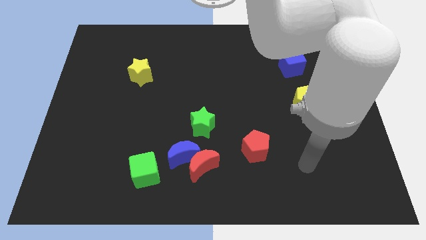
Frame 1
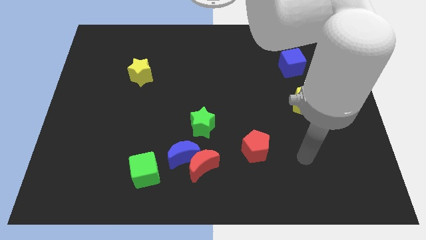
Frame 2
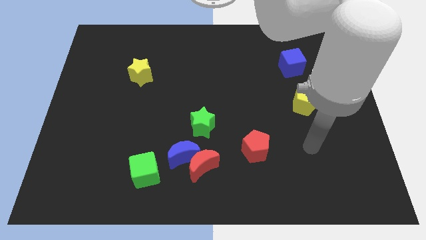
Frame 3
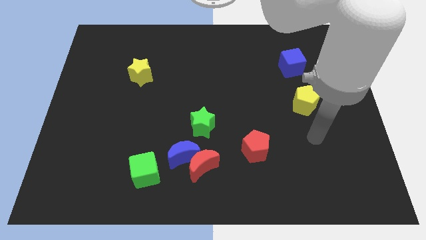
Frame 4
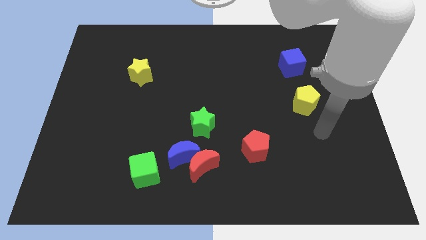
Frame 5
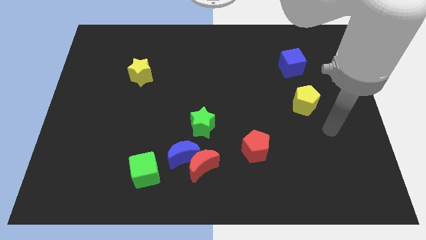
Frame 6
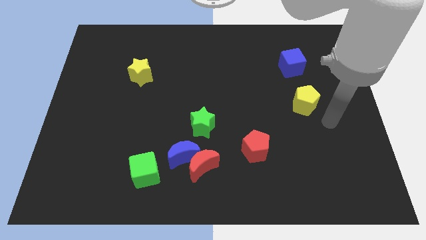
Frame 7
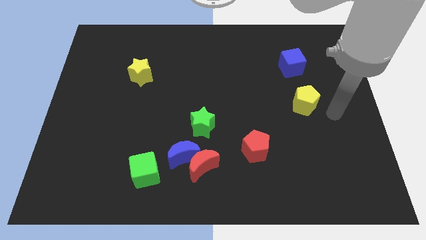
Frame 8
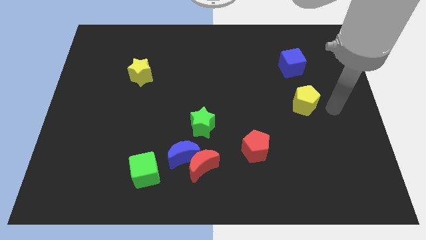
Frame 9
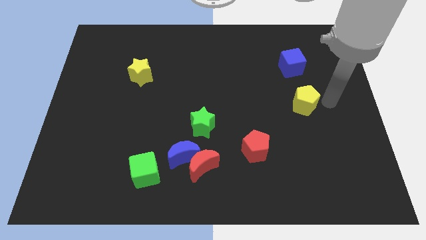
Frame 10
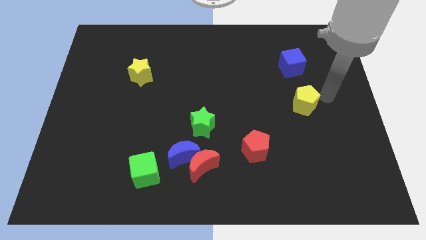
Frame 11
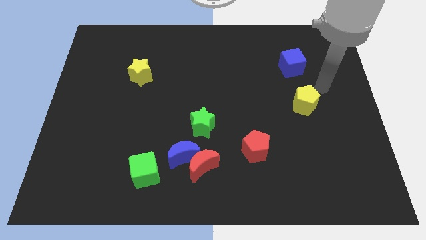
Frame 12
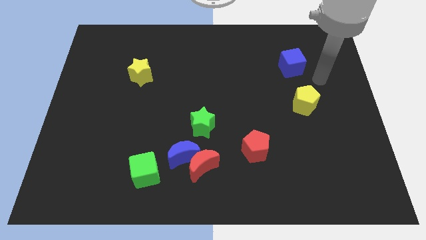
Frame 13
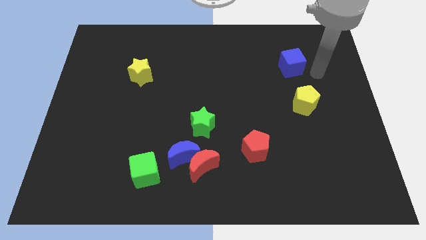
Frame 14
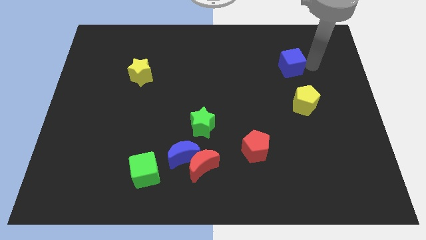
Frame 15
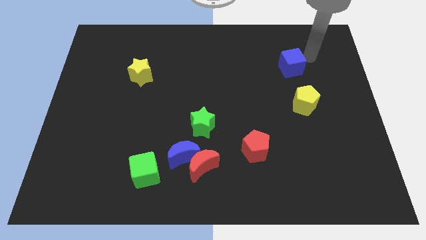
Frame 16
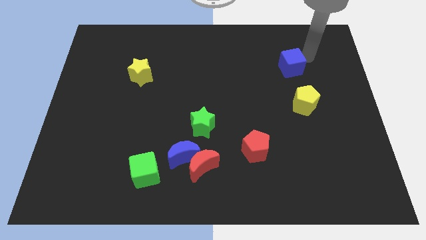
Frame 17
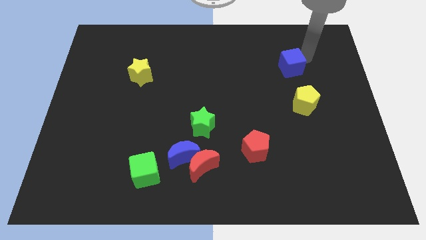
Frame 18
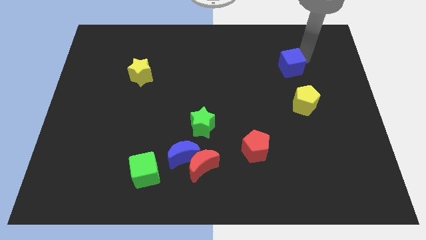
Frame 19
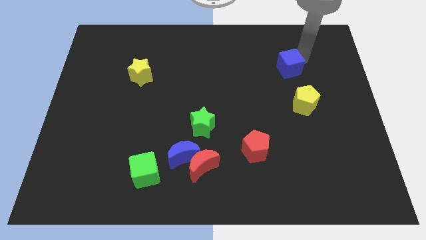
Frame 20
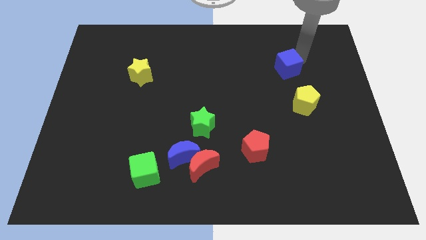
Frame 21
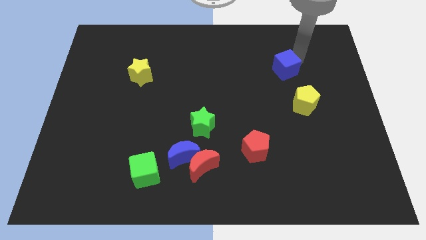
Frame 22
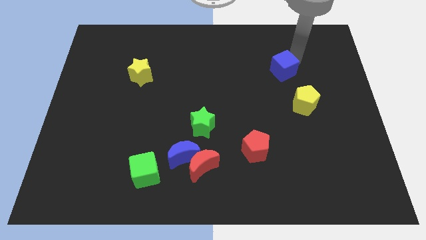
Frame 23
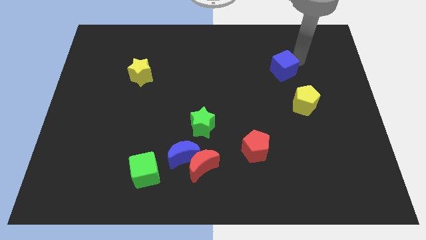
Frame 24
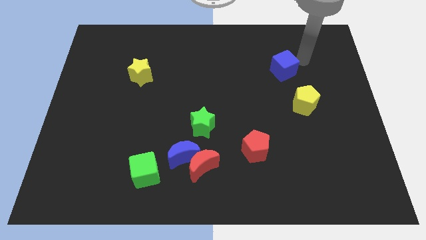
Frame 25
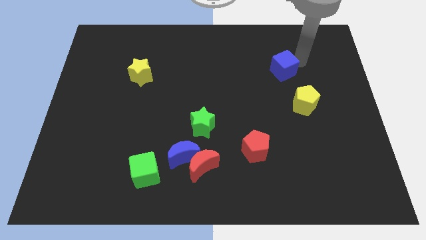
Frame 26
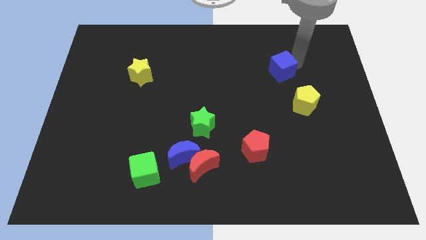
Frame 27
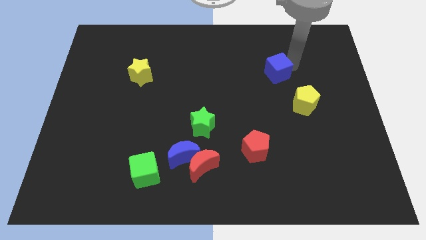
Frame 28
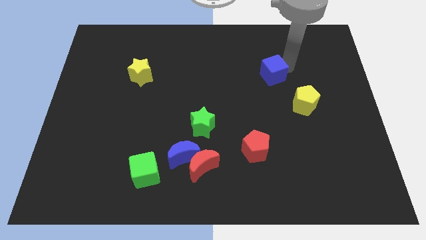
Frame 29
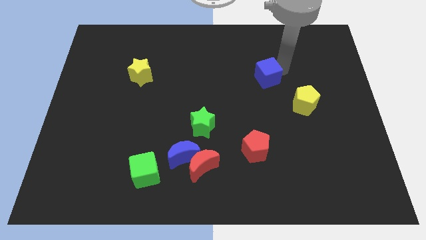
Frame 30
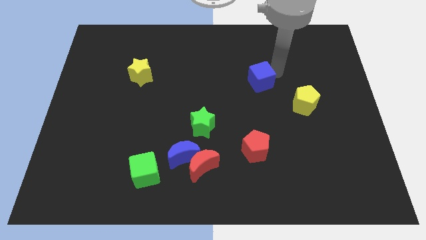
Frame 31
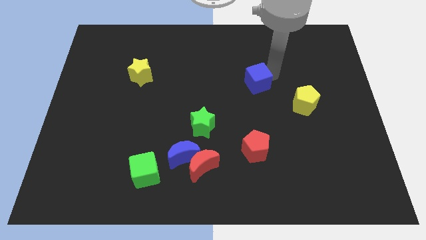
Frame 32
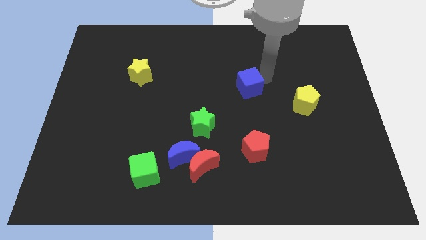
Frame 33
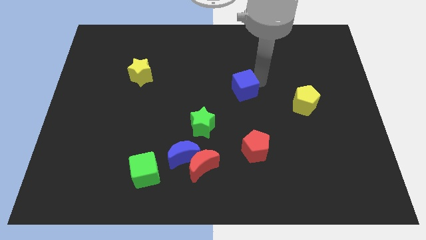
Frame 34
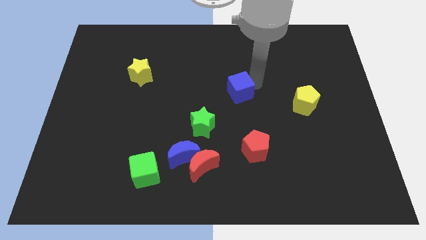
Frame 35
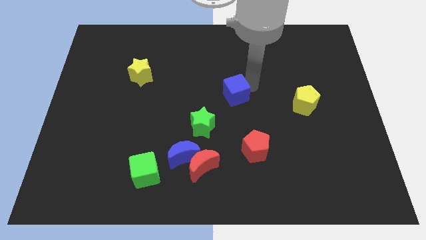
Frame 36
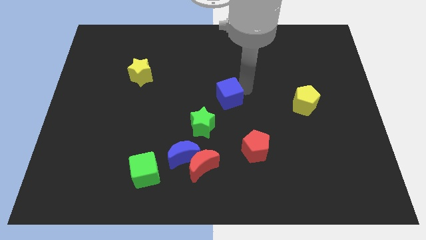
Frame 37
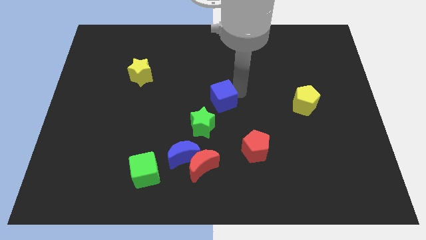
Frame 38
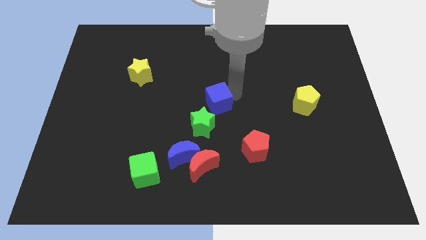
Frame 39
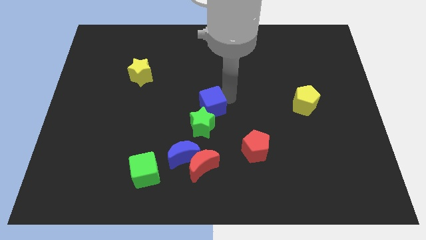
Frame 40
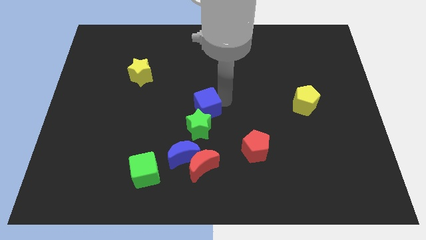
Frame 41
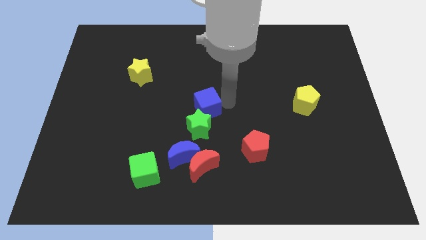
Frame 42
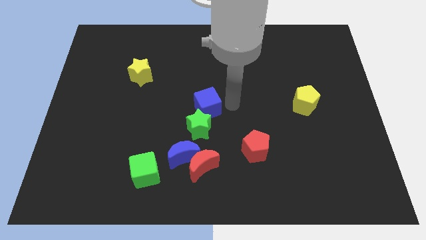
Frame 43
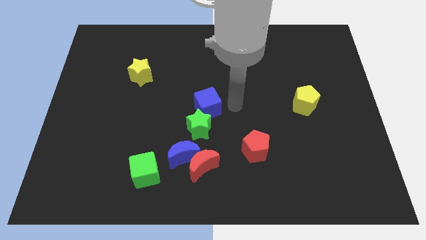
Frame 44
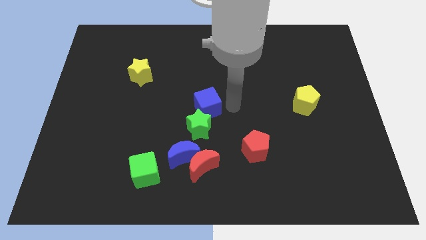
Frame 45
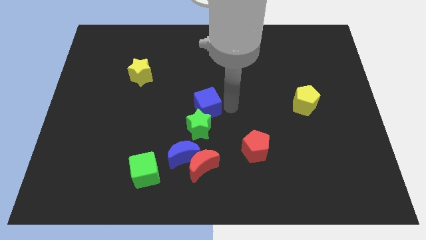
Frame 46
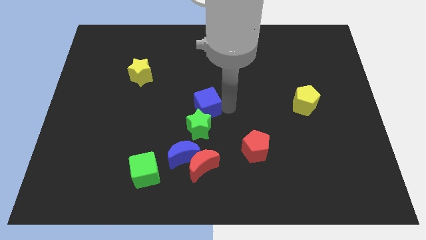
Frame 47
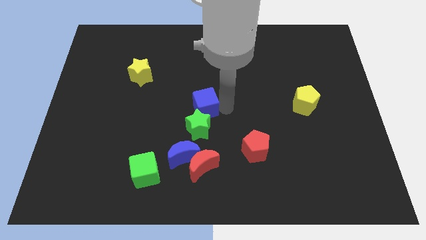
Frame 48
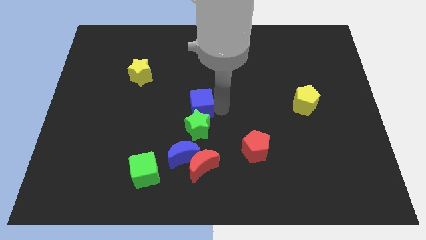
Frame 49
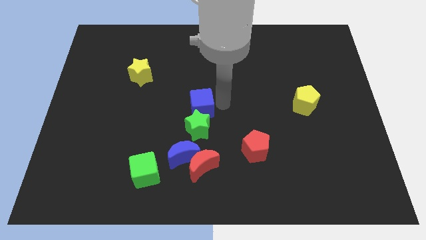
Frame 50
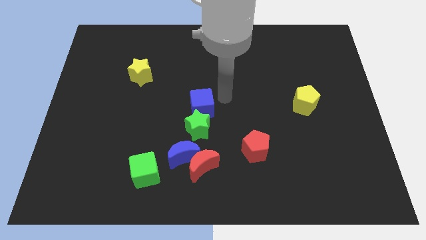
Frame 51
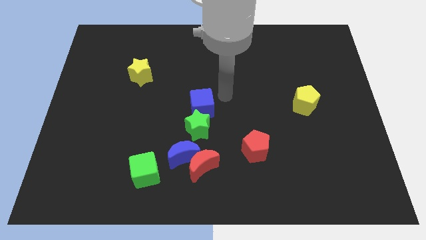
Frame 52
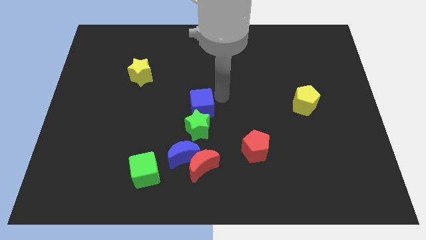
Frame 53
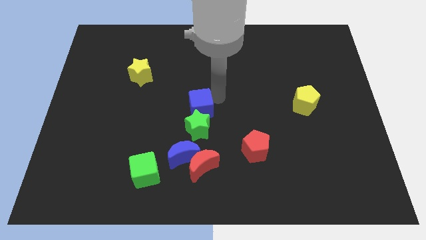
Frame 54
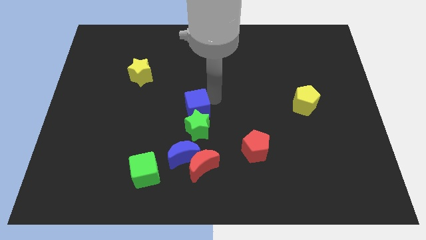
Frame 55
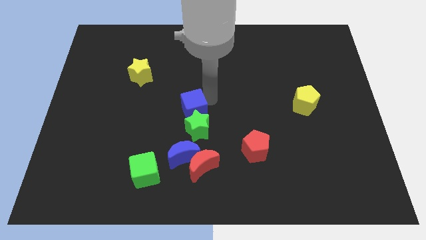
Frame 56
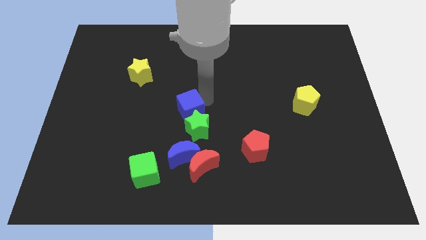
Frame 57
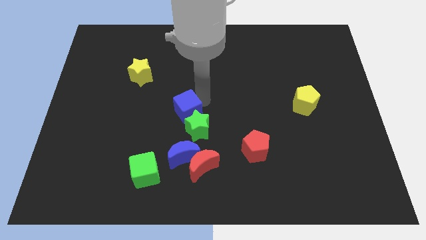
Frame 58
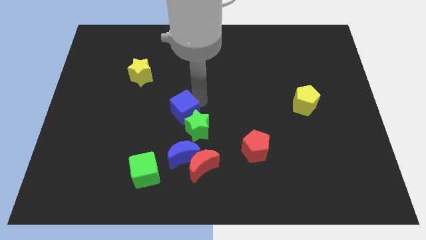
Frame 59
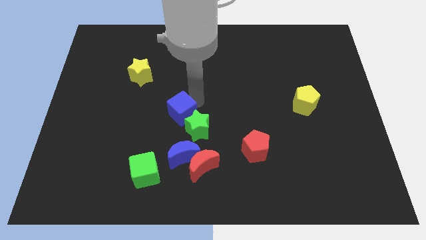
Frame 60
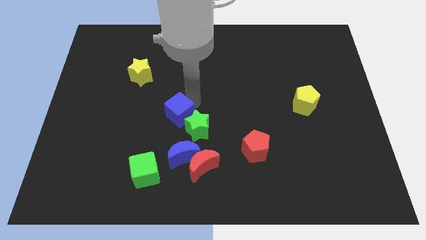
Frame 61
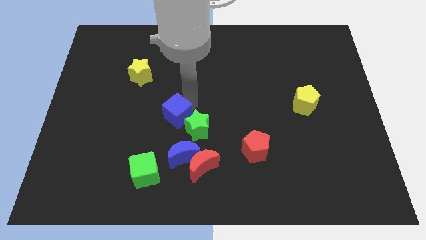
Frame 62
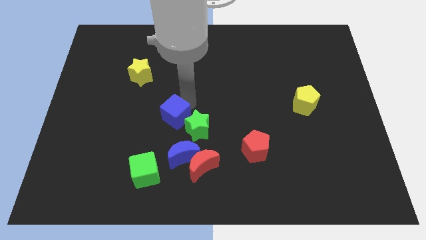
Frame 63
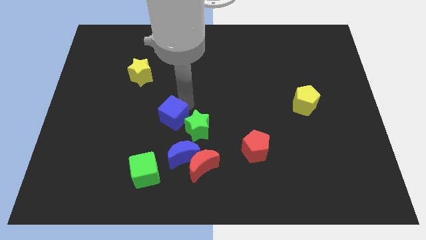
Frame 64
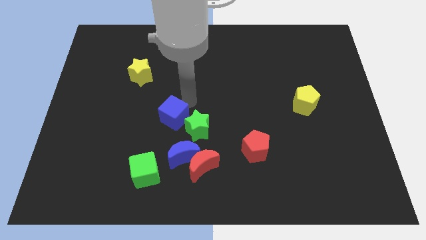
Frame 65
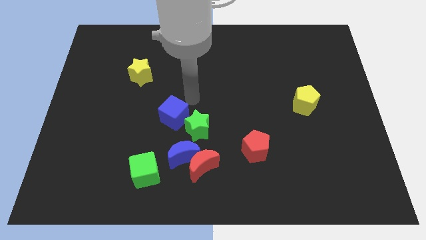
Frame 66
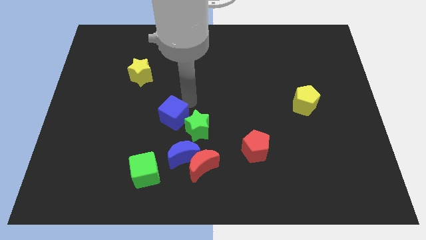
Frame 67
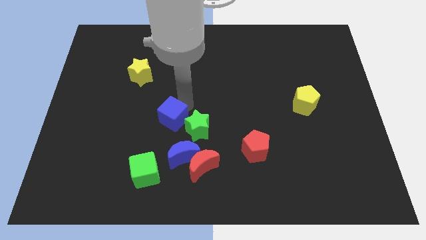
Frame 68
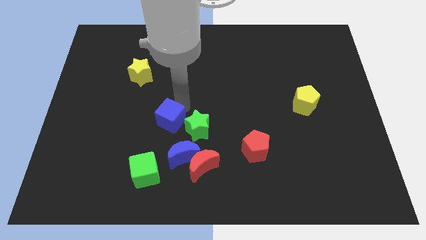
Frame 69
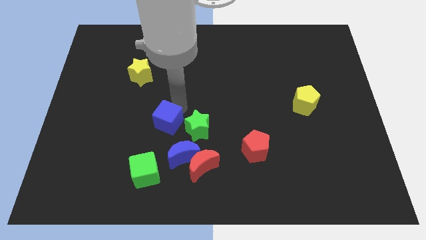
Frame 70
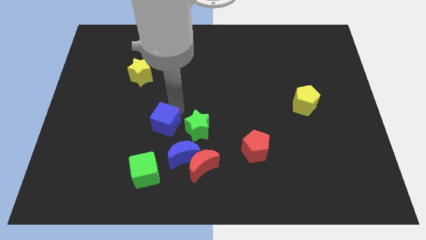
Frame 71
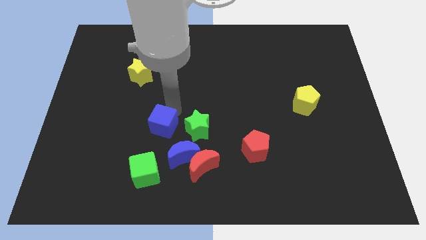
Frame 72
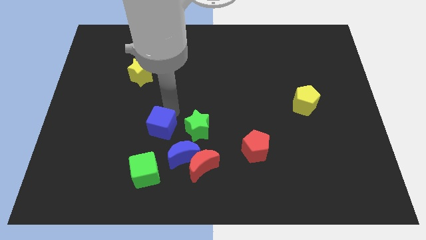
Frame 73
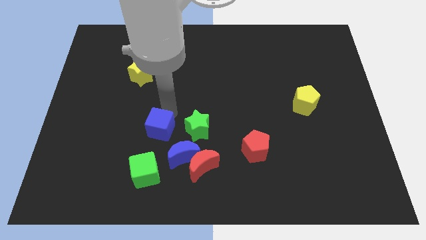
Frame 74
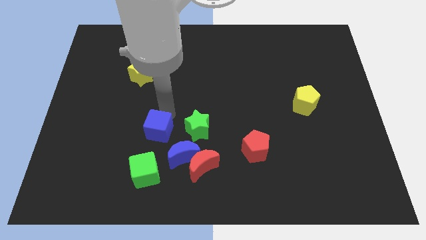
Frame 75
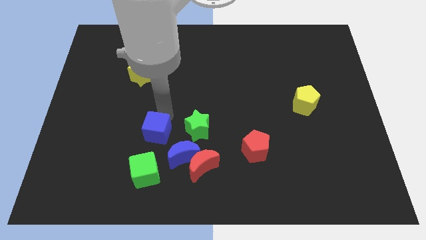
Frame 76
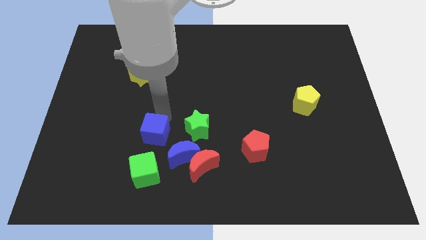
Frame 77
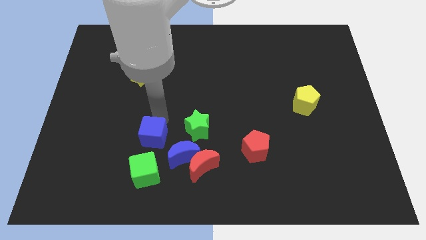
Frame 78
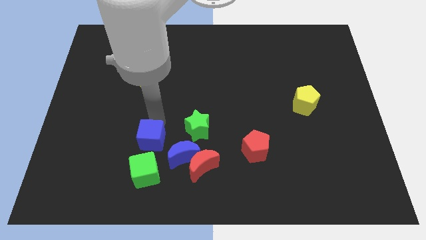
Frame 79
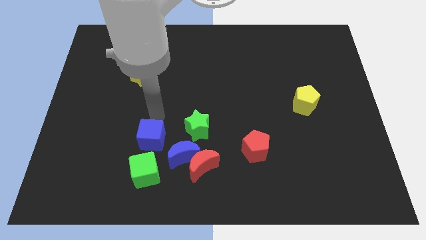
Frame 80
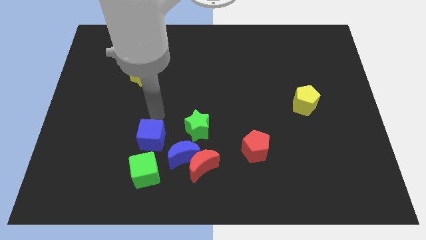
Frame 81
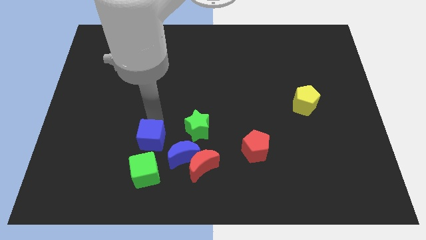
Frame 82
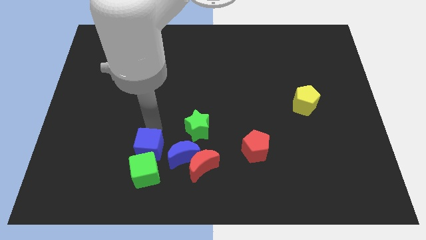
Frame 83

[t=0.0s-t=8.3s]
move the blue cube to the green cube
